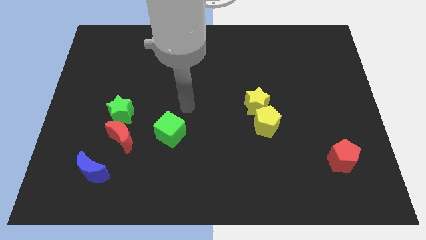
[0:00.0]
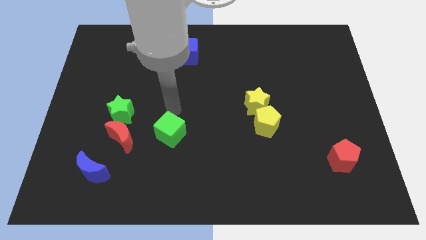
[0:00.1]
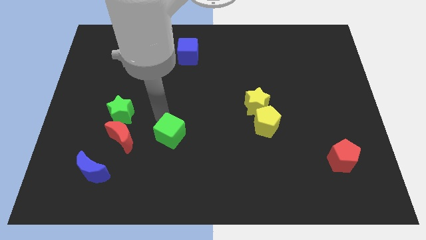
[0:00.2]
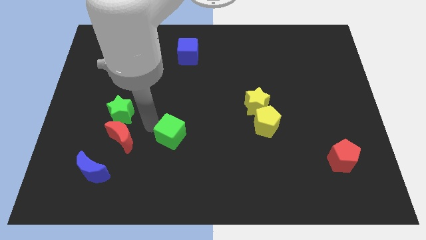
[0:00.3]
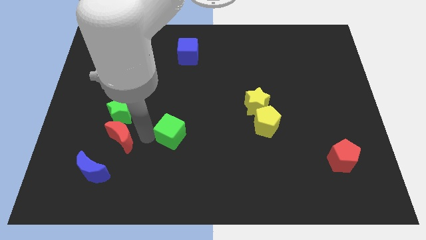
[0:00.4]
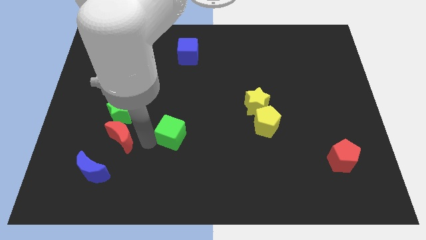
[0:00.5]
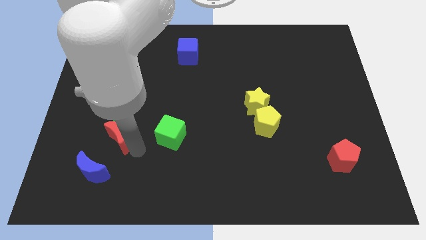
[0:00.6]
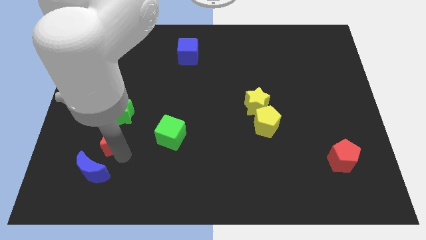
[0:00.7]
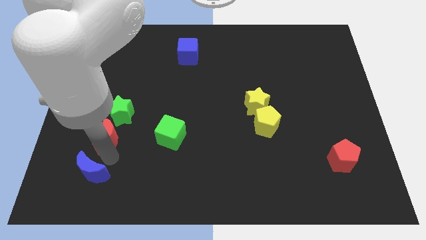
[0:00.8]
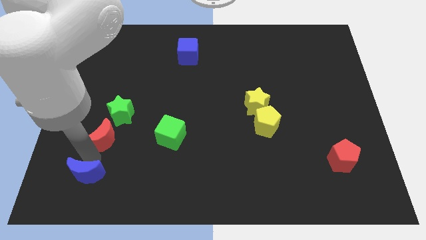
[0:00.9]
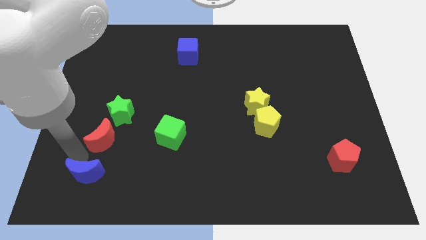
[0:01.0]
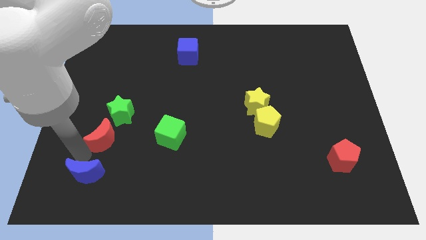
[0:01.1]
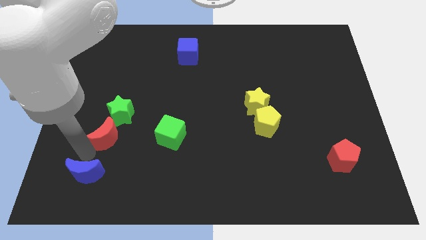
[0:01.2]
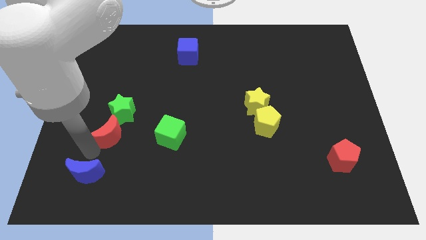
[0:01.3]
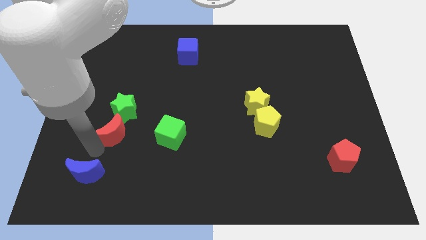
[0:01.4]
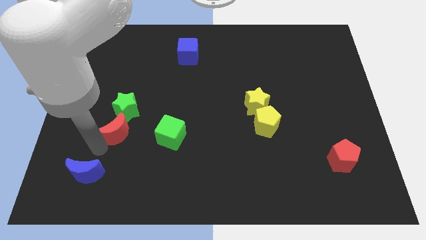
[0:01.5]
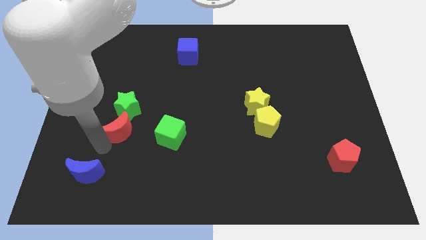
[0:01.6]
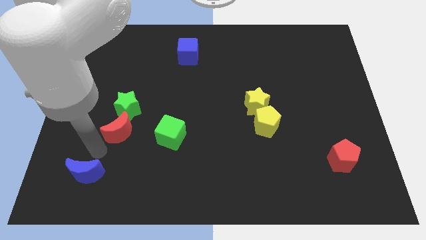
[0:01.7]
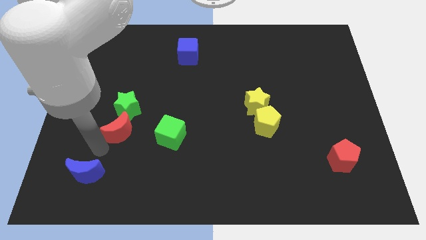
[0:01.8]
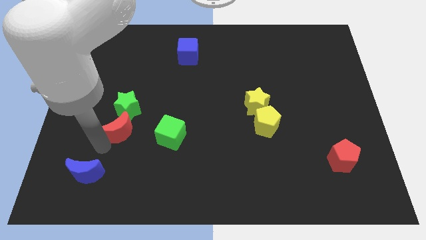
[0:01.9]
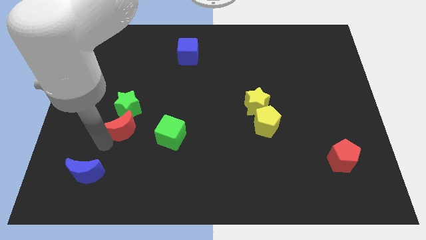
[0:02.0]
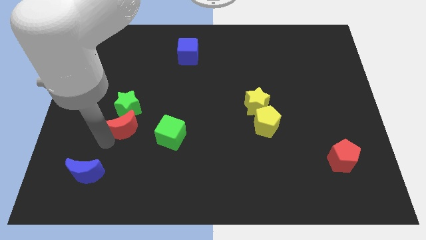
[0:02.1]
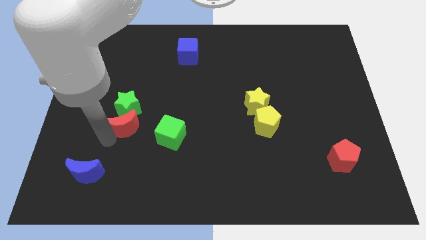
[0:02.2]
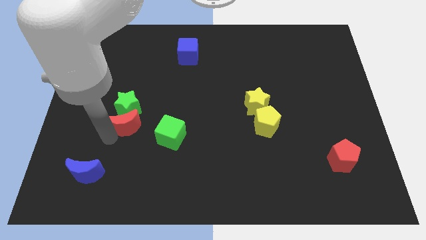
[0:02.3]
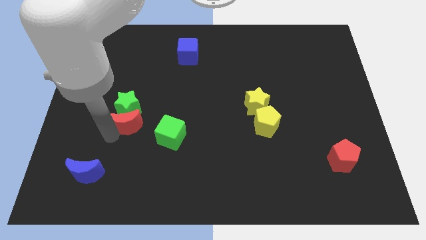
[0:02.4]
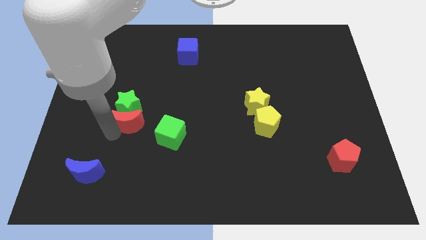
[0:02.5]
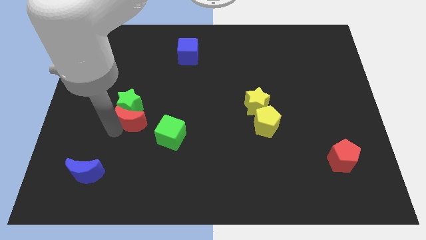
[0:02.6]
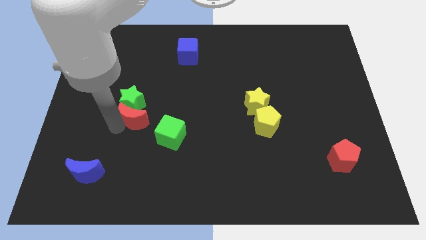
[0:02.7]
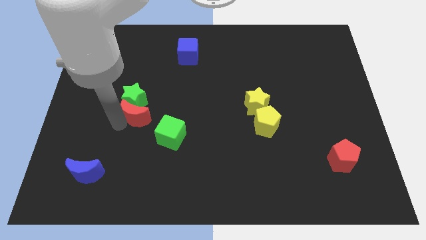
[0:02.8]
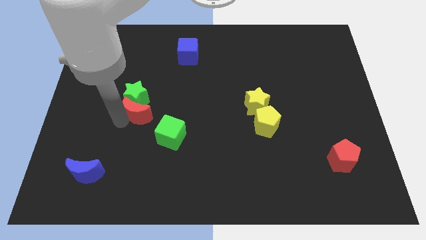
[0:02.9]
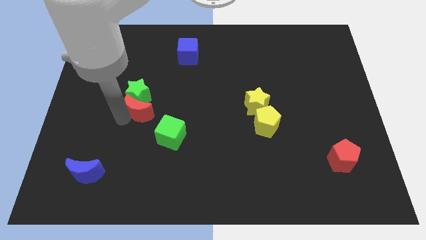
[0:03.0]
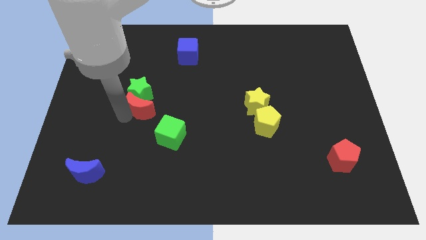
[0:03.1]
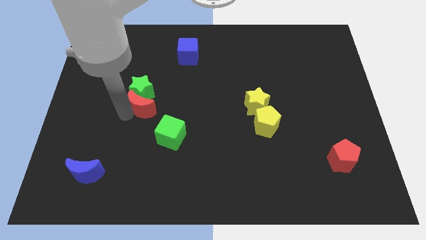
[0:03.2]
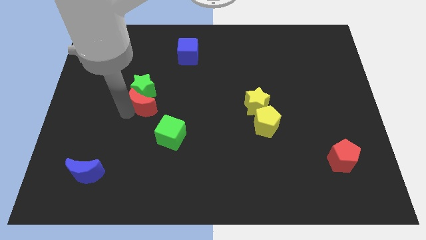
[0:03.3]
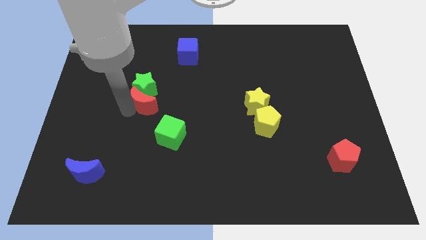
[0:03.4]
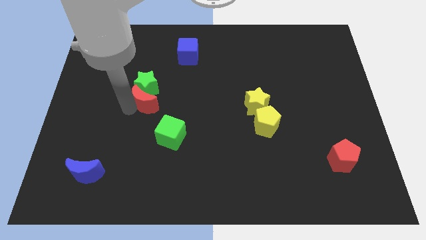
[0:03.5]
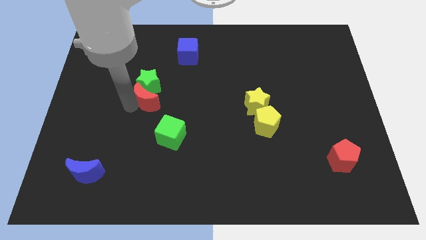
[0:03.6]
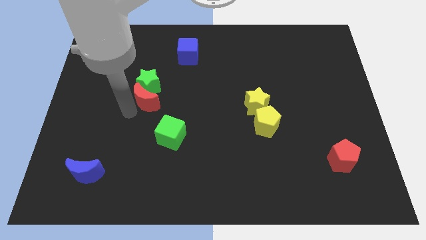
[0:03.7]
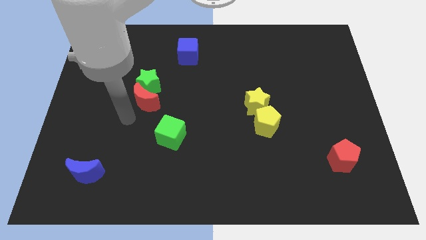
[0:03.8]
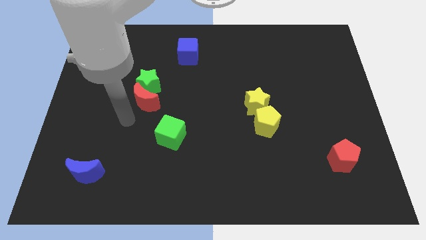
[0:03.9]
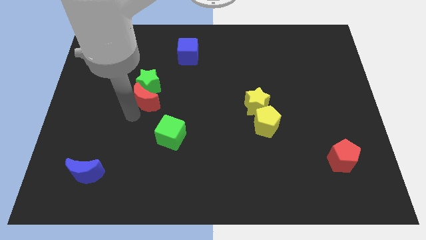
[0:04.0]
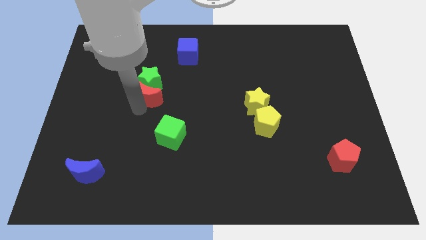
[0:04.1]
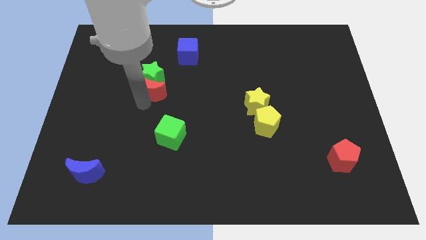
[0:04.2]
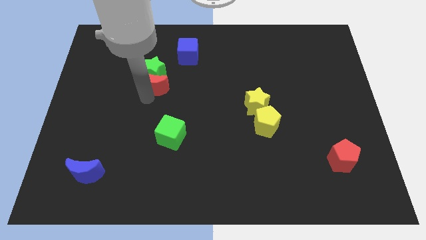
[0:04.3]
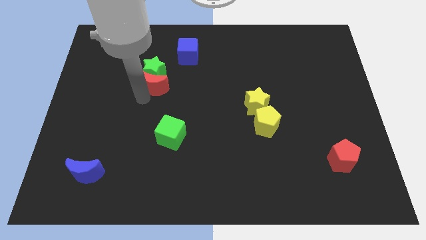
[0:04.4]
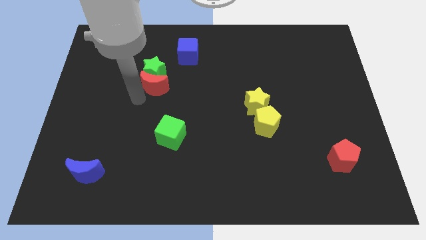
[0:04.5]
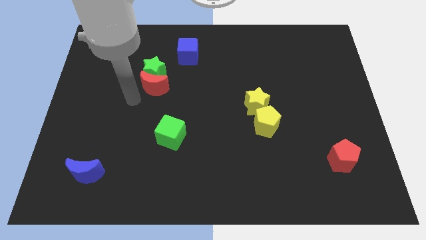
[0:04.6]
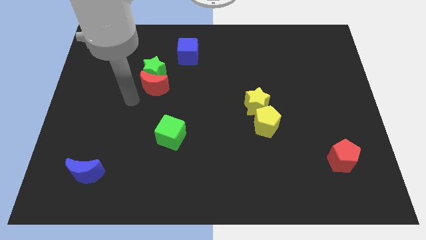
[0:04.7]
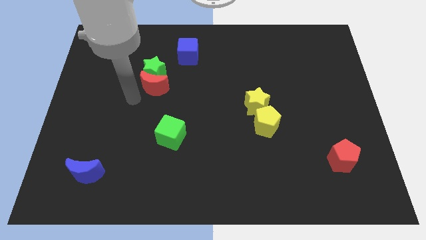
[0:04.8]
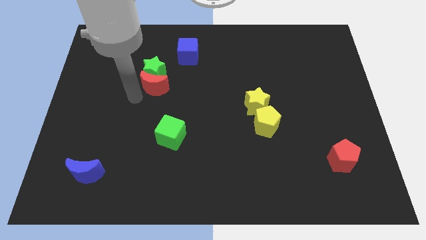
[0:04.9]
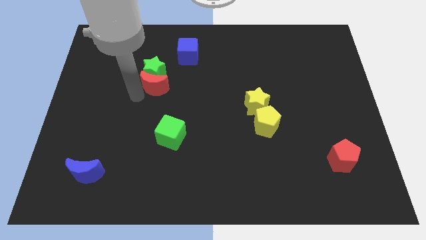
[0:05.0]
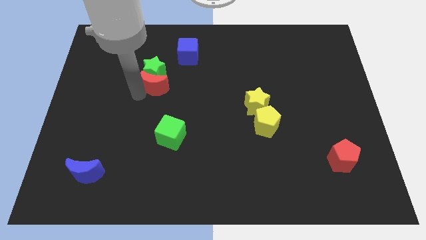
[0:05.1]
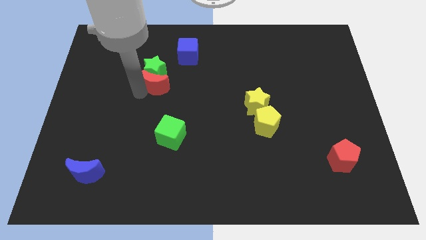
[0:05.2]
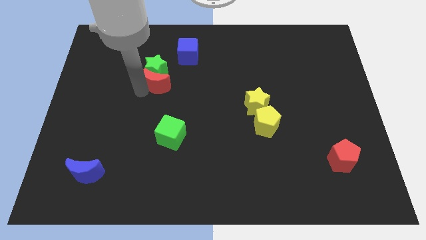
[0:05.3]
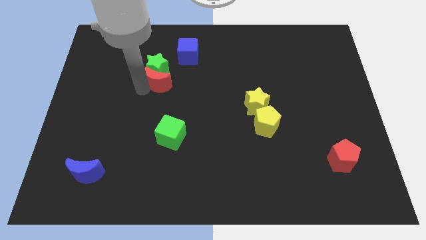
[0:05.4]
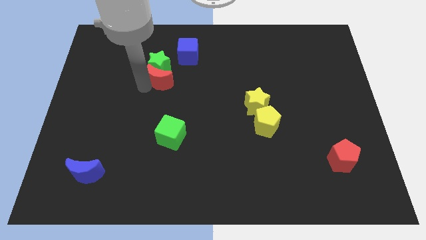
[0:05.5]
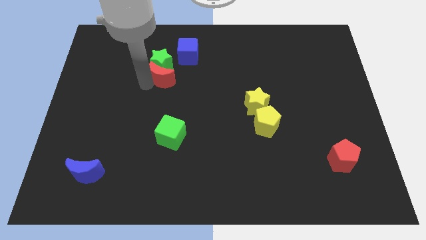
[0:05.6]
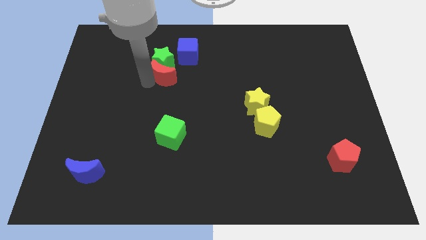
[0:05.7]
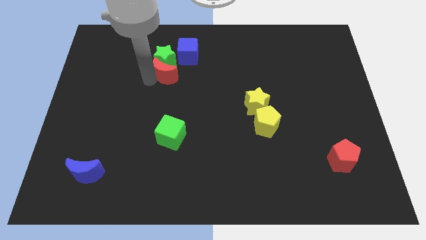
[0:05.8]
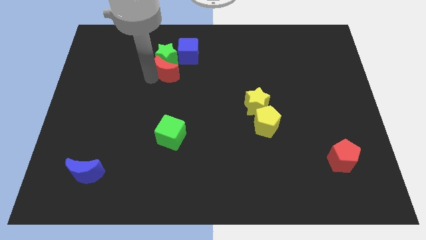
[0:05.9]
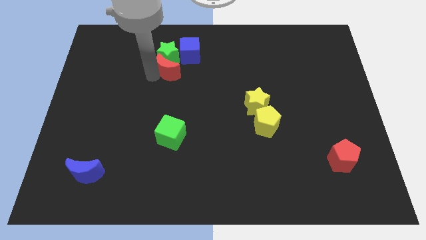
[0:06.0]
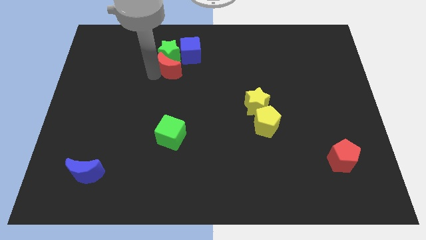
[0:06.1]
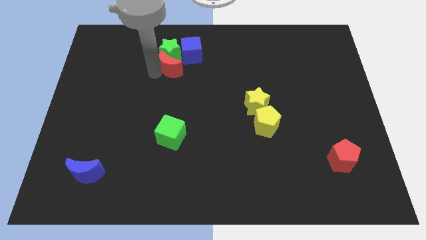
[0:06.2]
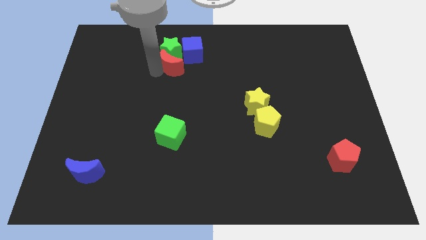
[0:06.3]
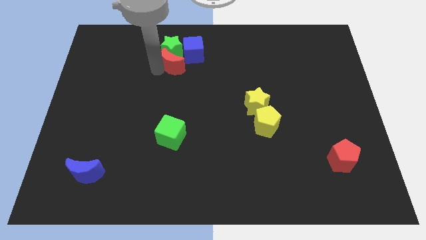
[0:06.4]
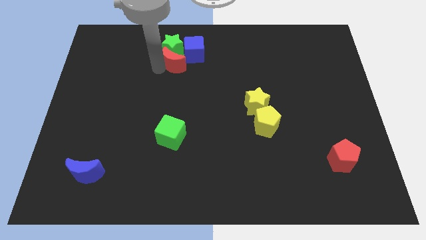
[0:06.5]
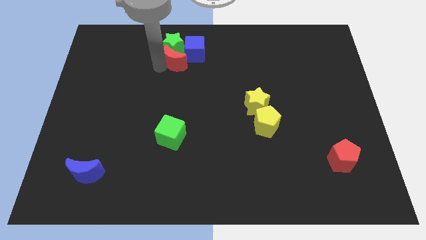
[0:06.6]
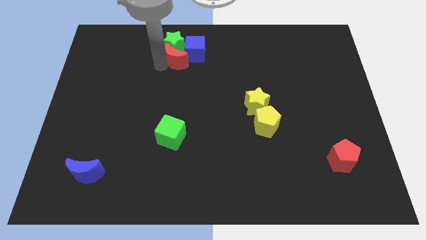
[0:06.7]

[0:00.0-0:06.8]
push the red moon to the blue cube

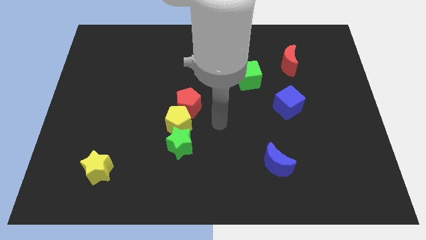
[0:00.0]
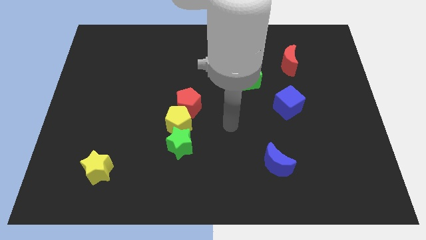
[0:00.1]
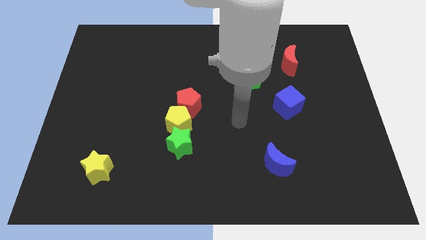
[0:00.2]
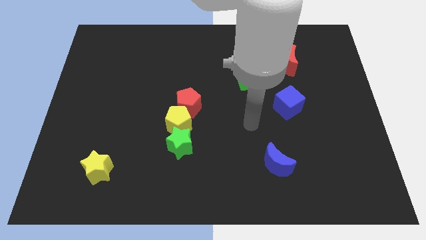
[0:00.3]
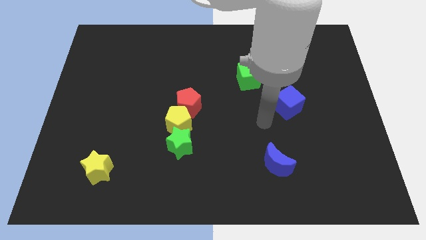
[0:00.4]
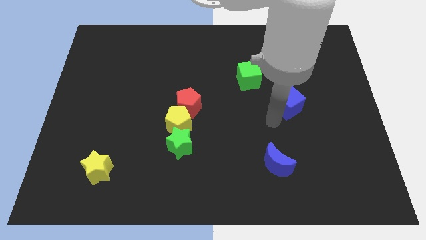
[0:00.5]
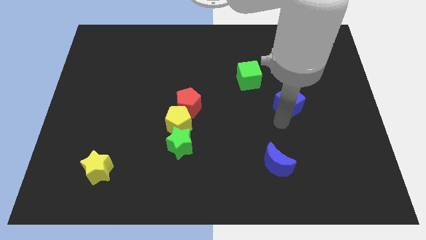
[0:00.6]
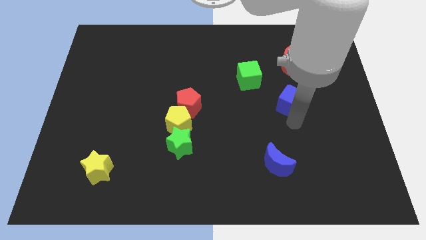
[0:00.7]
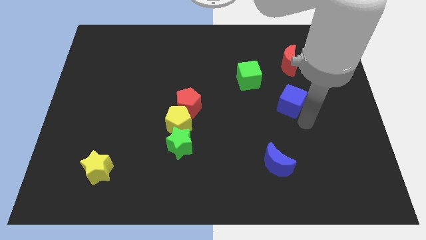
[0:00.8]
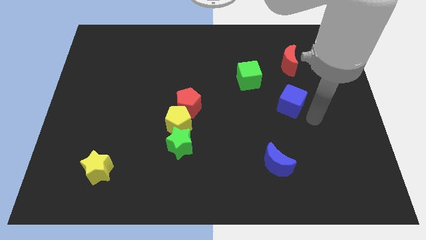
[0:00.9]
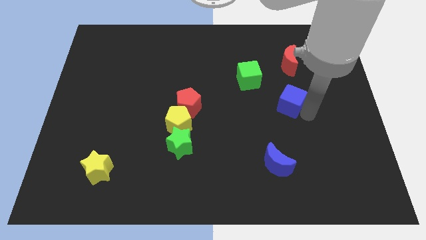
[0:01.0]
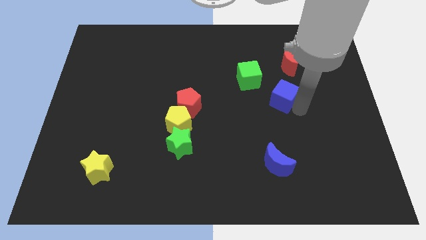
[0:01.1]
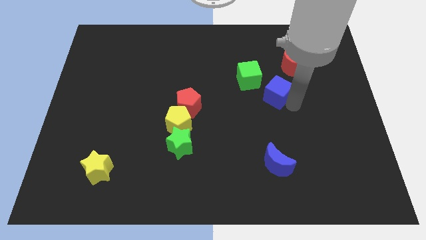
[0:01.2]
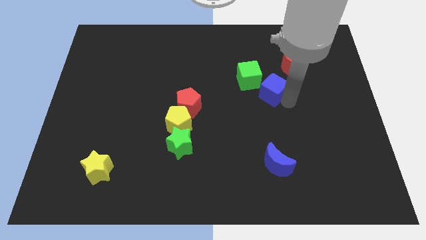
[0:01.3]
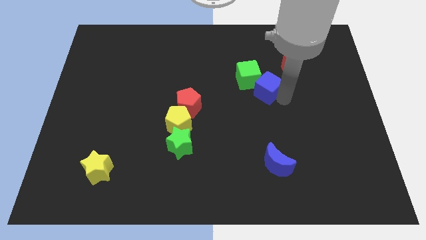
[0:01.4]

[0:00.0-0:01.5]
move the blue cube to the green cube

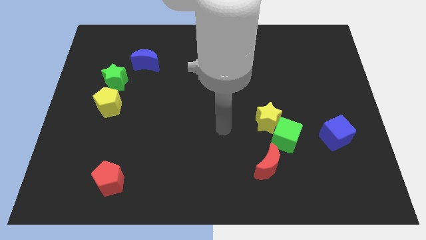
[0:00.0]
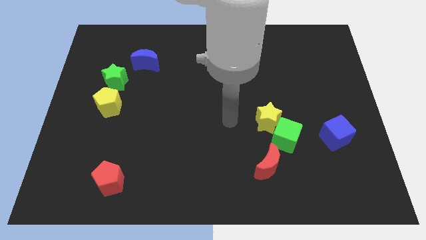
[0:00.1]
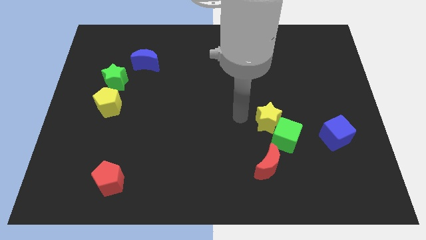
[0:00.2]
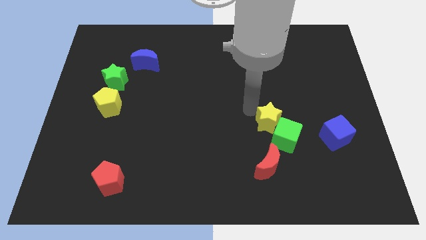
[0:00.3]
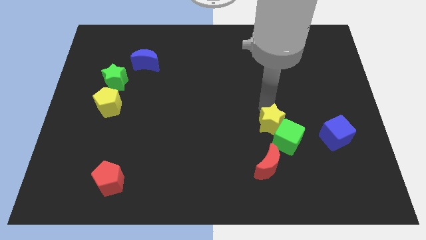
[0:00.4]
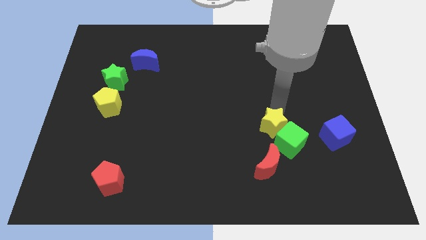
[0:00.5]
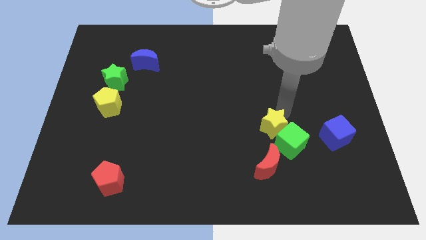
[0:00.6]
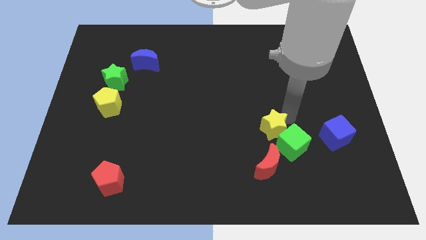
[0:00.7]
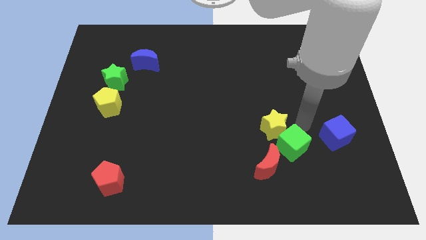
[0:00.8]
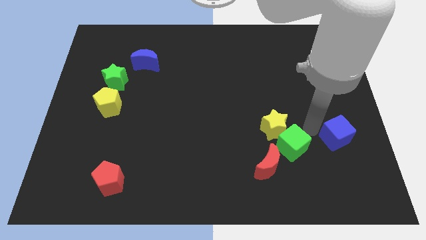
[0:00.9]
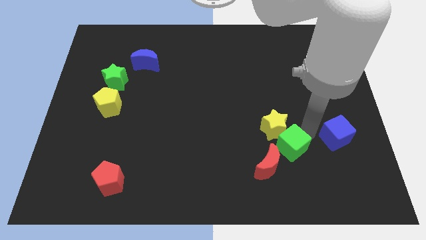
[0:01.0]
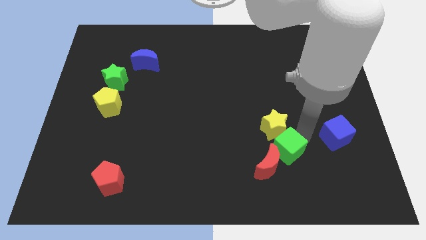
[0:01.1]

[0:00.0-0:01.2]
put the green cube close to the red moon
